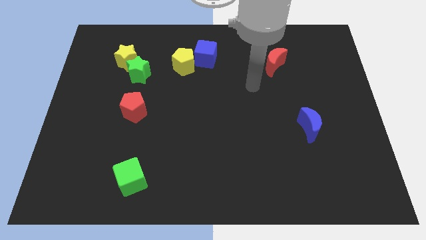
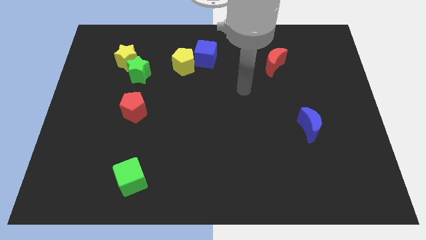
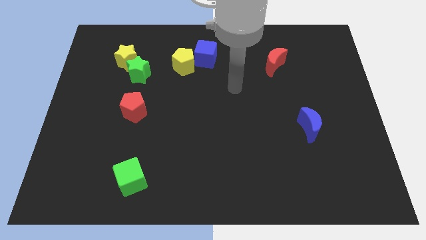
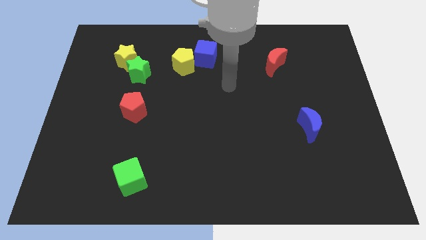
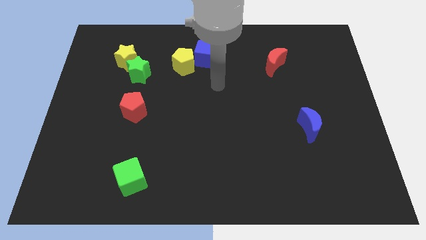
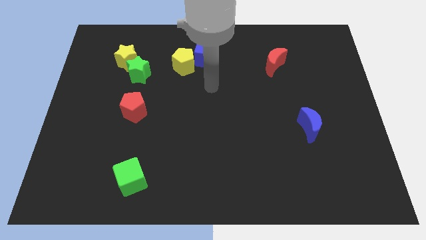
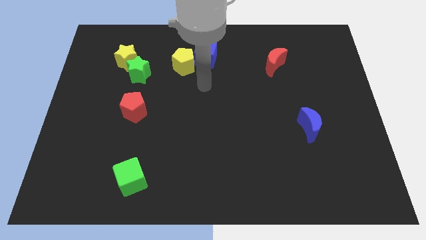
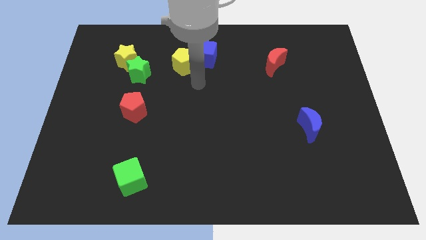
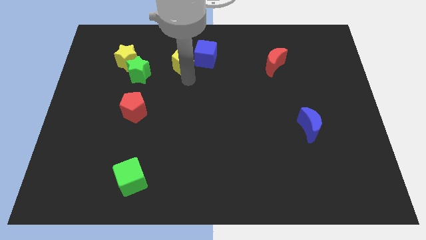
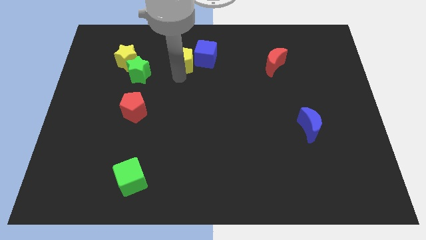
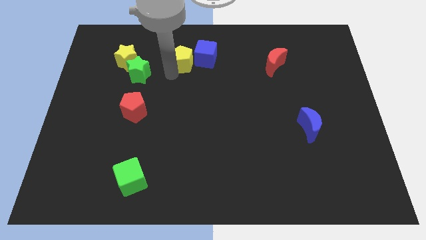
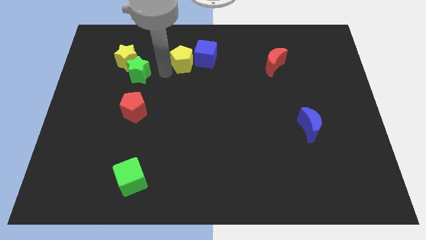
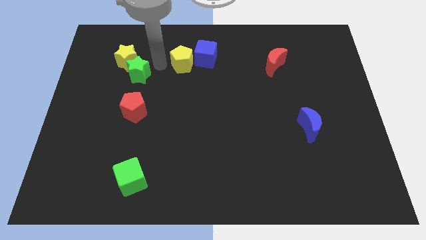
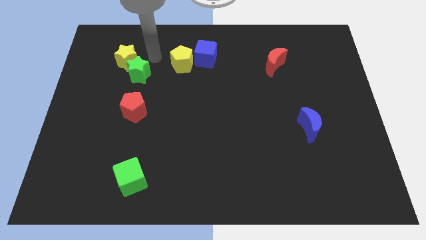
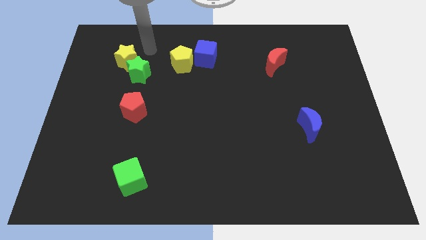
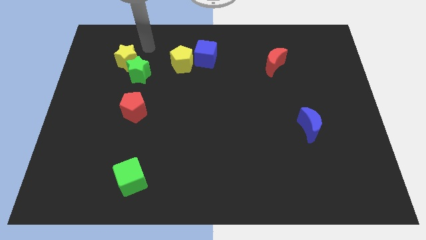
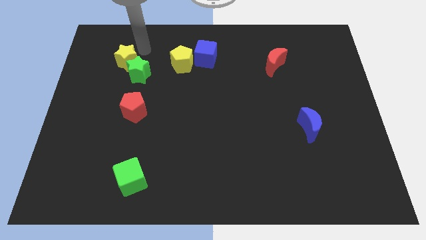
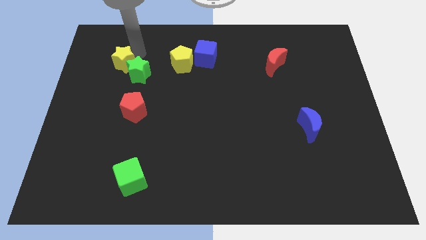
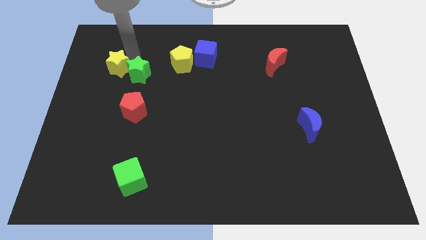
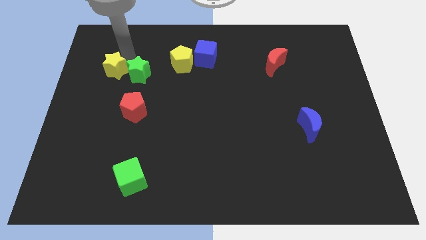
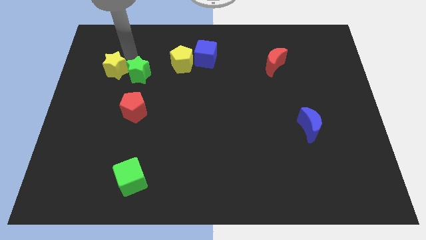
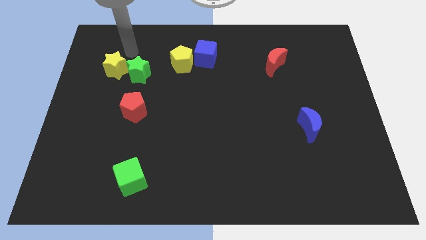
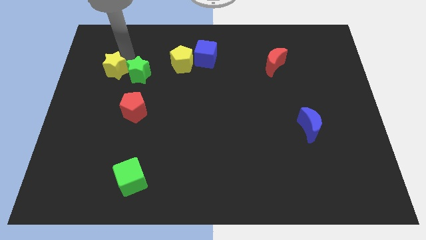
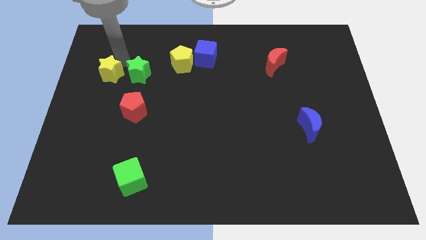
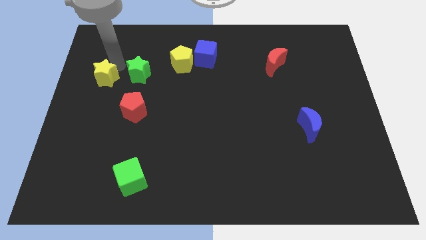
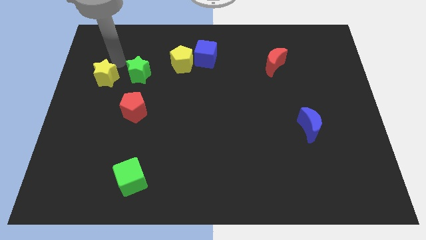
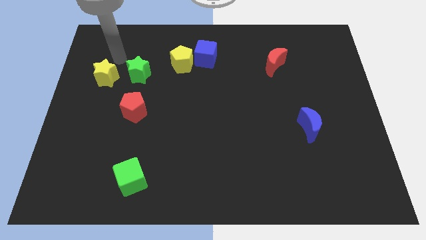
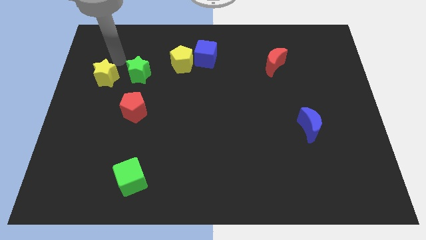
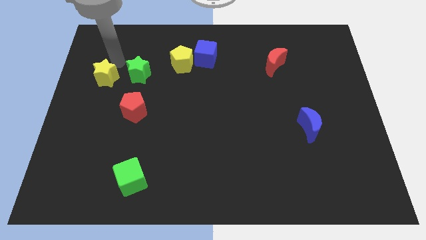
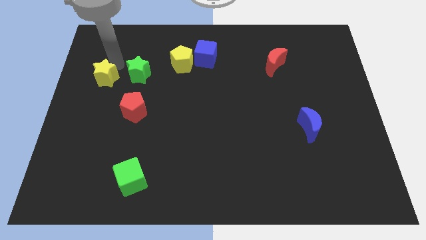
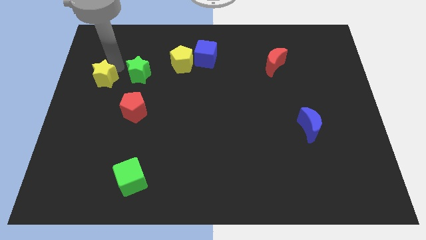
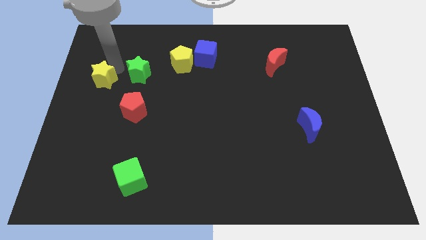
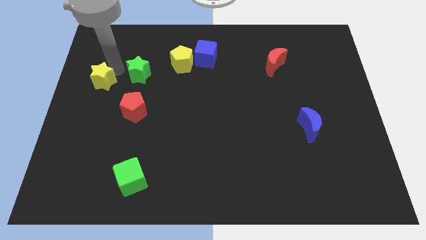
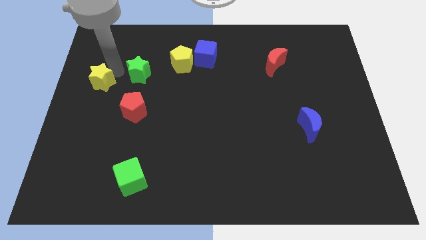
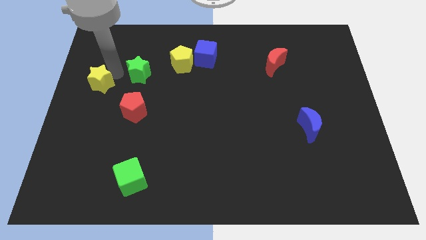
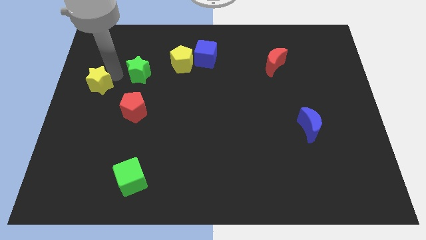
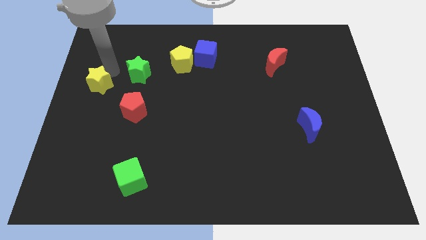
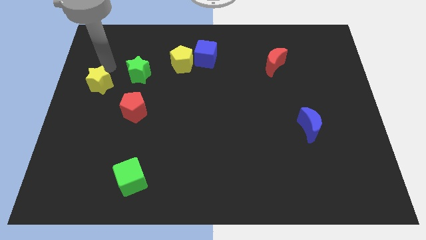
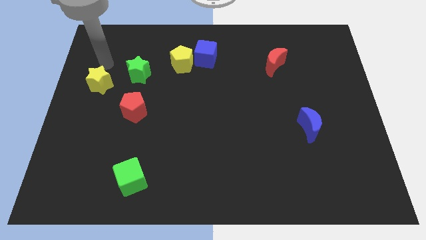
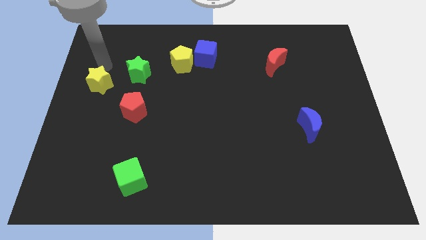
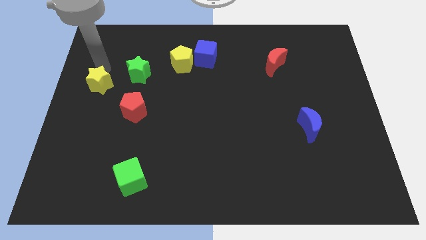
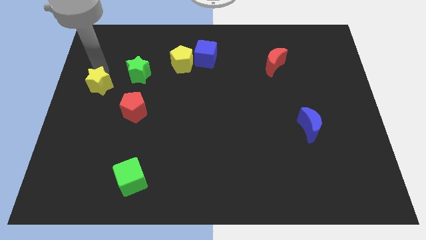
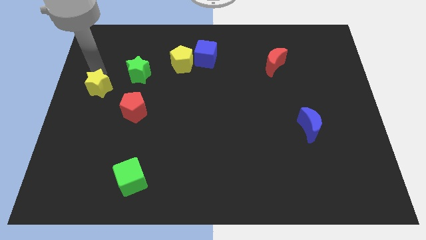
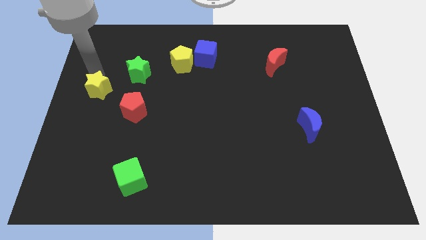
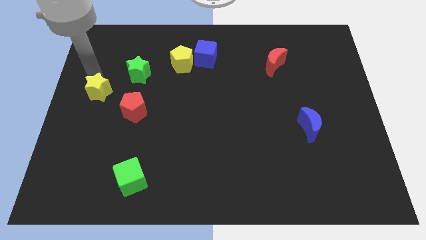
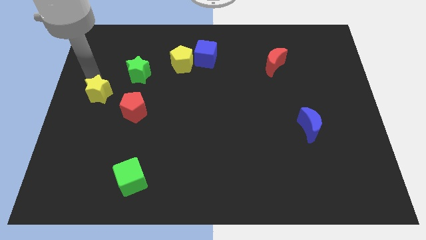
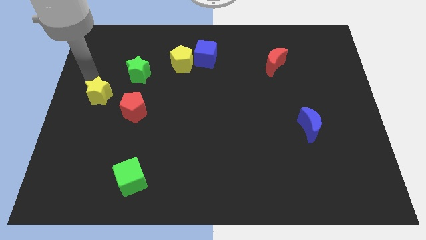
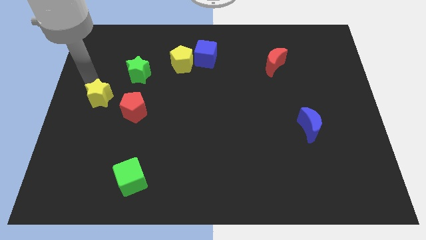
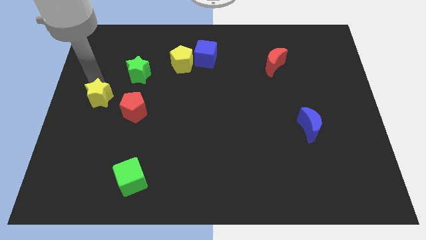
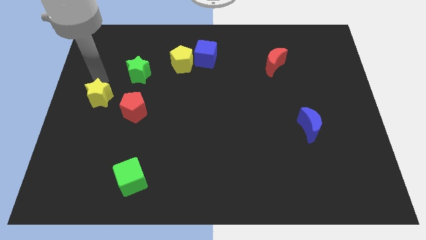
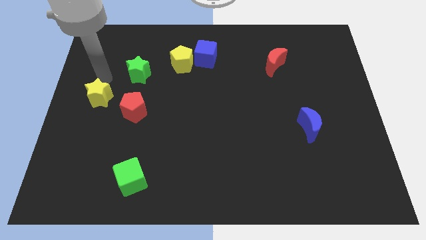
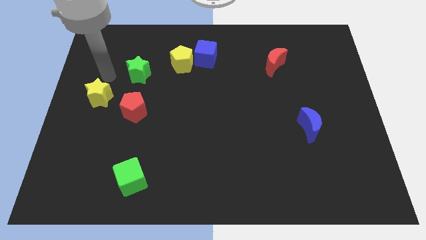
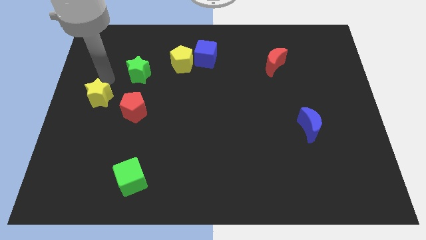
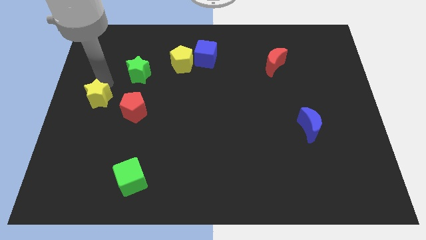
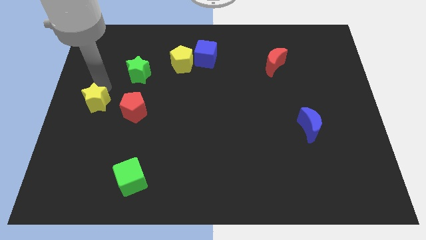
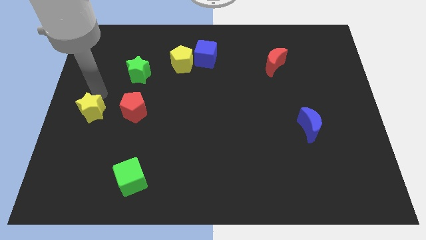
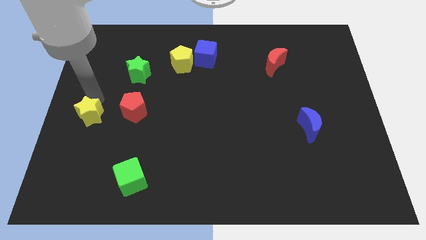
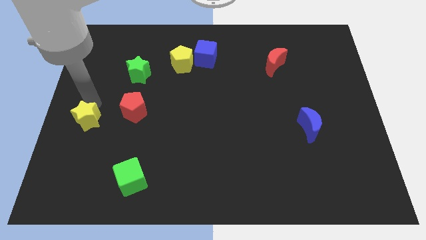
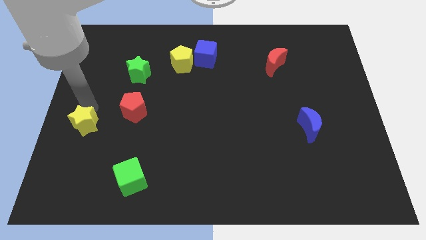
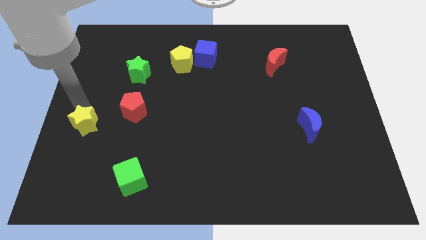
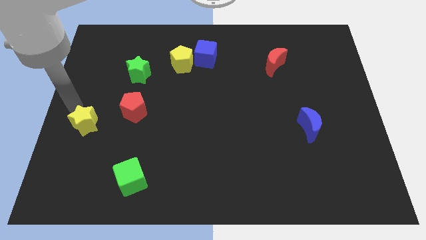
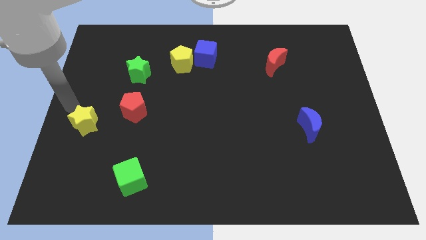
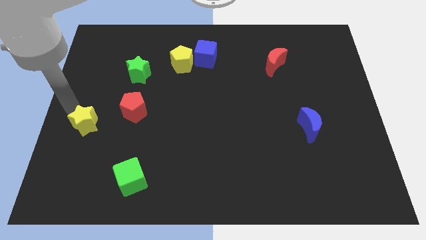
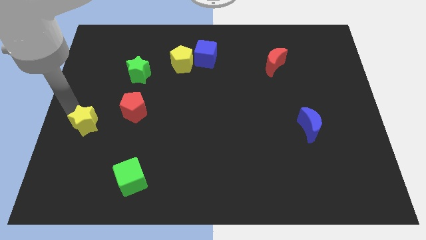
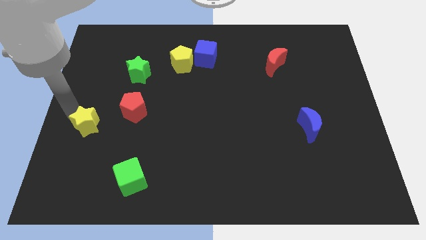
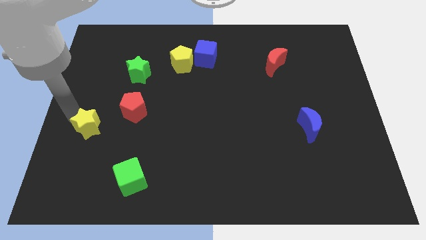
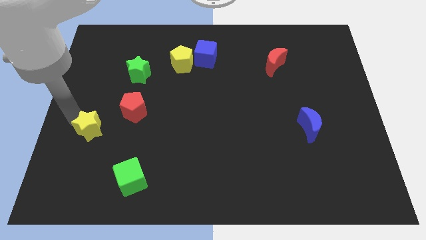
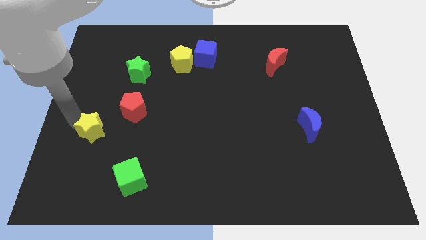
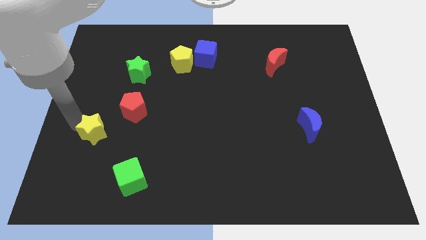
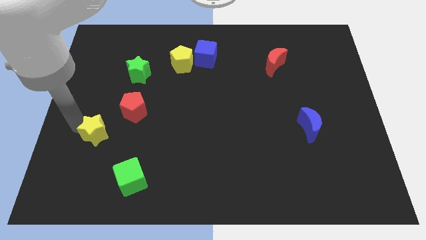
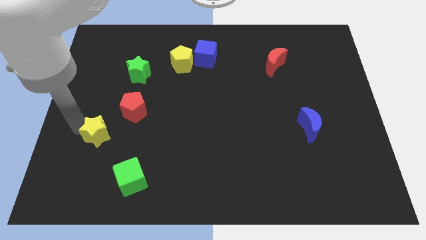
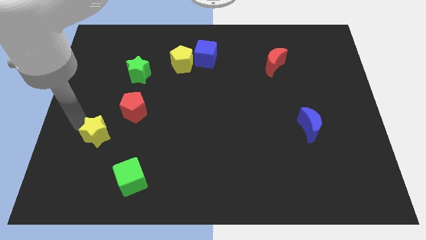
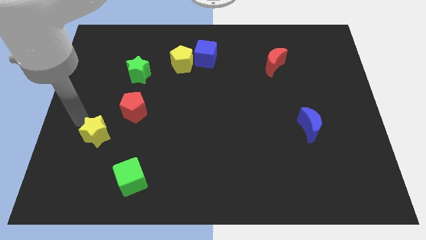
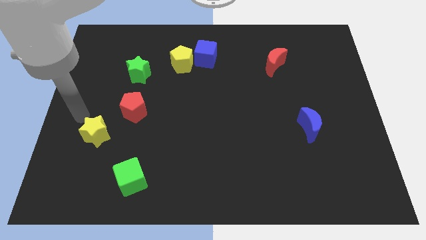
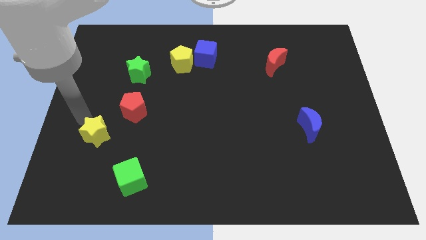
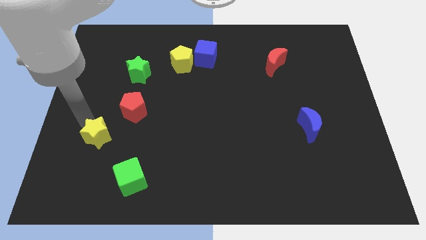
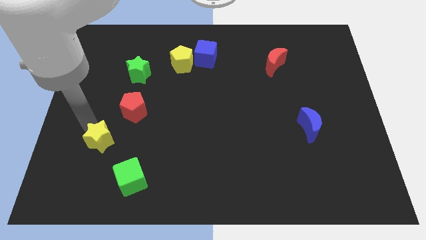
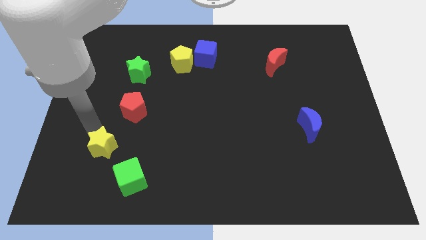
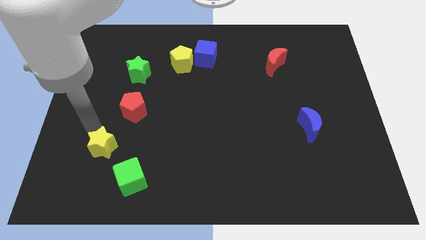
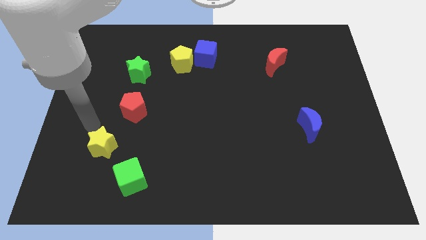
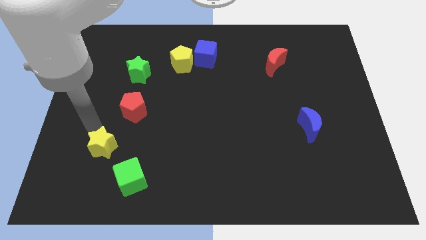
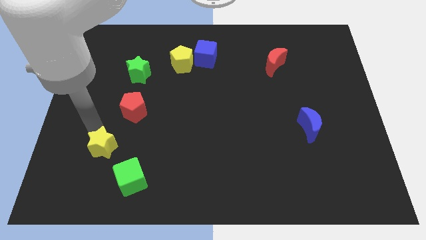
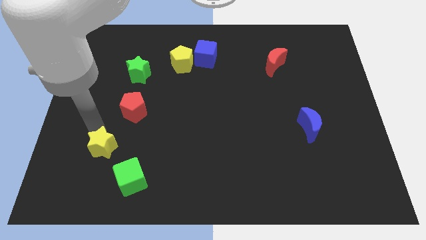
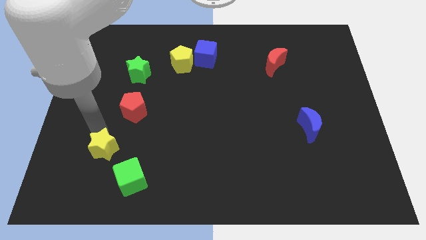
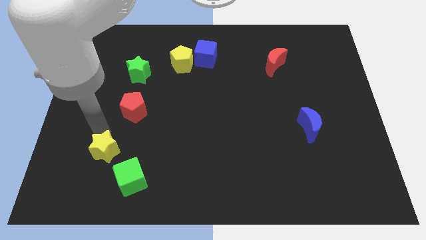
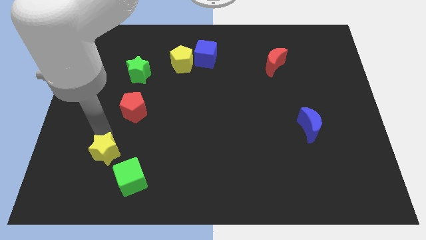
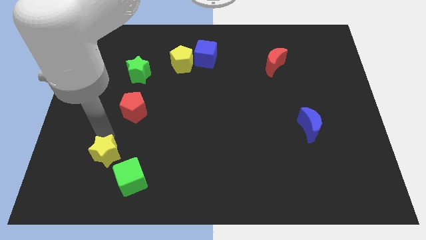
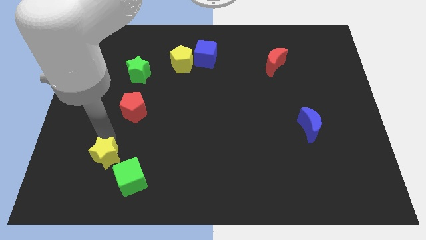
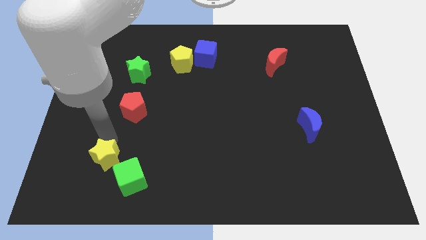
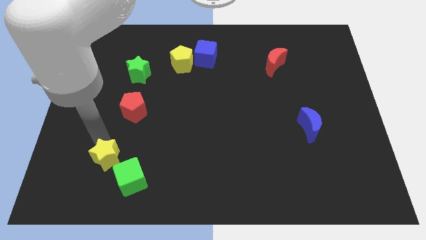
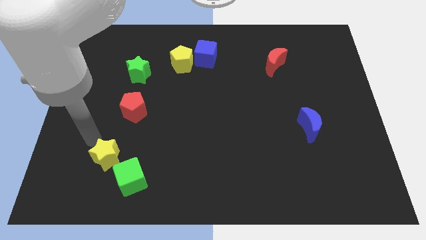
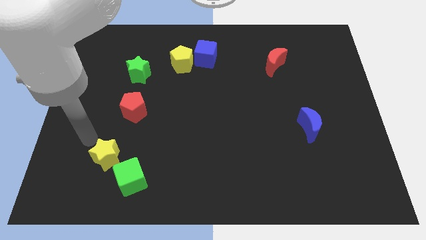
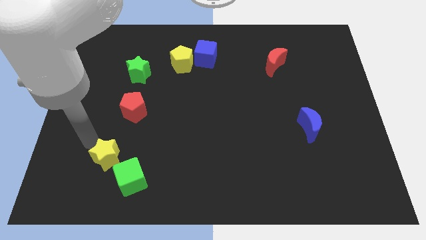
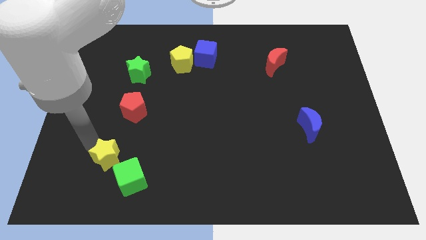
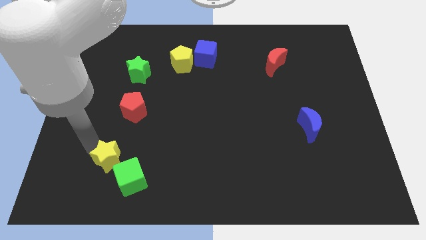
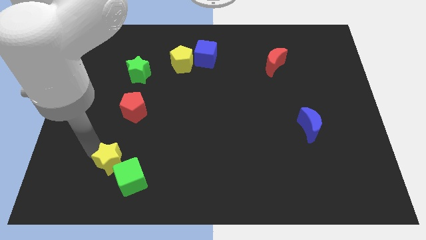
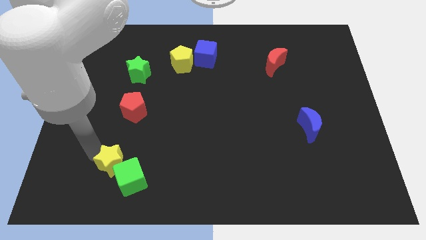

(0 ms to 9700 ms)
put the yellow star to the green cube
